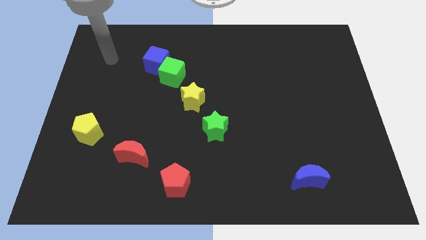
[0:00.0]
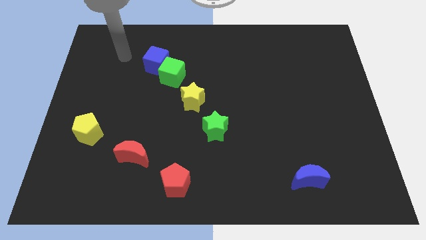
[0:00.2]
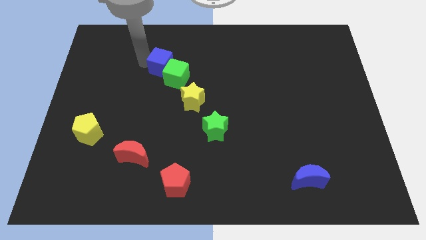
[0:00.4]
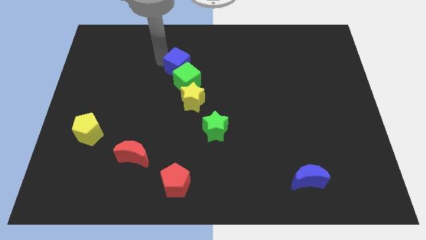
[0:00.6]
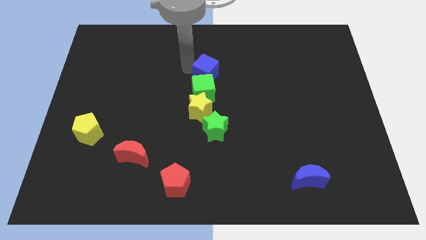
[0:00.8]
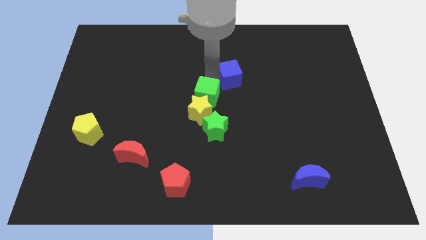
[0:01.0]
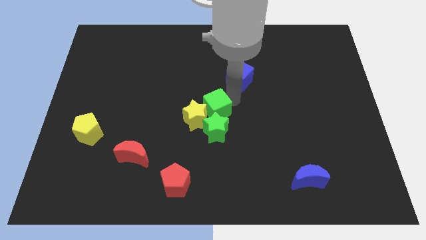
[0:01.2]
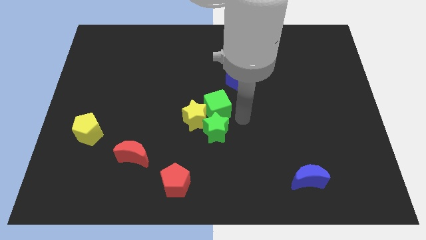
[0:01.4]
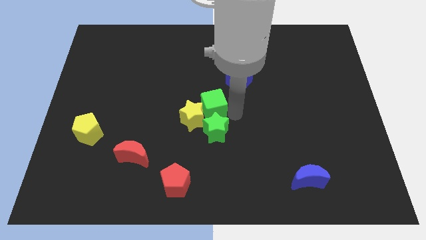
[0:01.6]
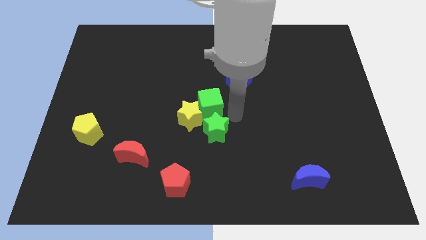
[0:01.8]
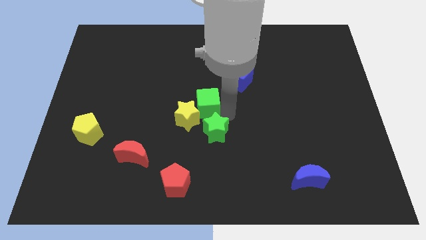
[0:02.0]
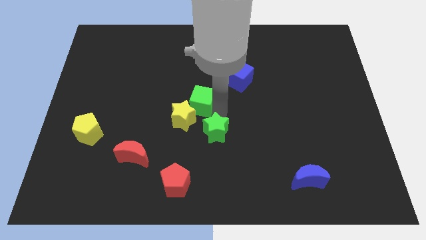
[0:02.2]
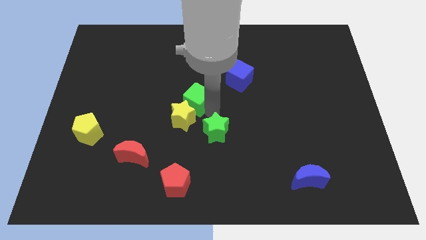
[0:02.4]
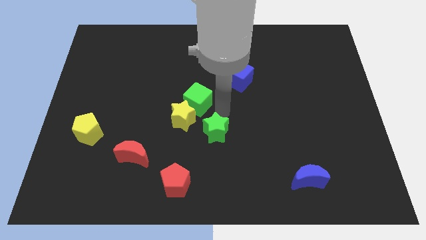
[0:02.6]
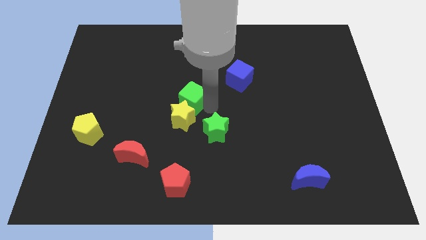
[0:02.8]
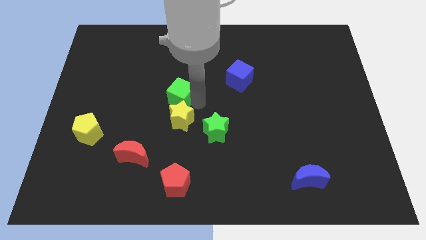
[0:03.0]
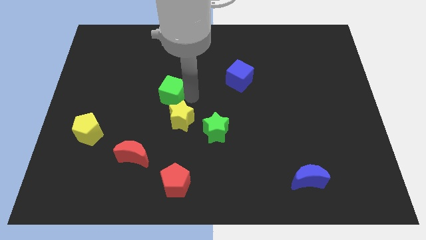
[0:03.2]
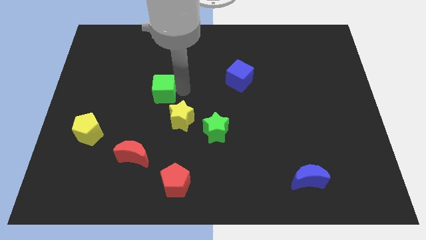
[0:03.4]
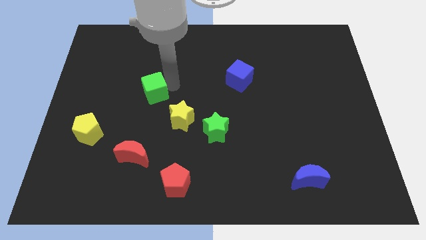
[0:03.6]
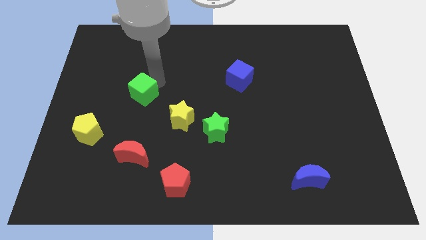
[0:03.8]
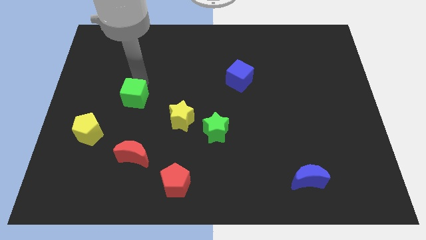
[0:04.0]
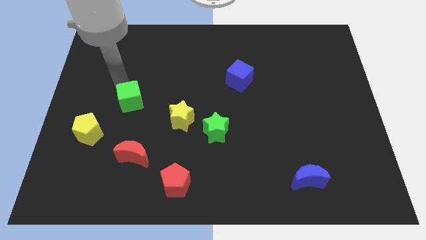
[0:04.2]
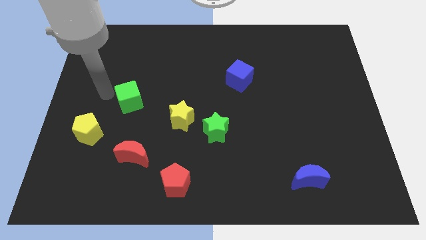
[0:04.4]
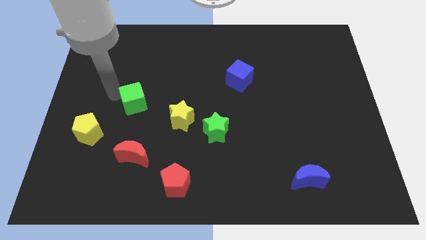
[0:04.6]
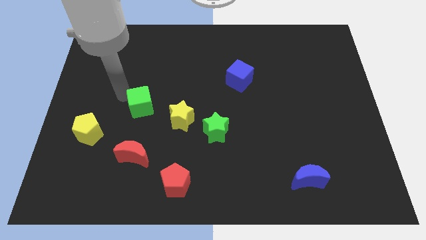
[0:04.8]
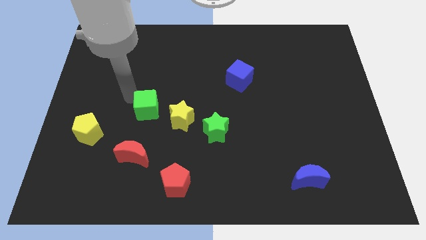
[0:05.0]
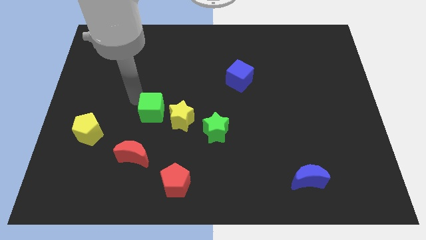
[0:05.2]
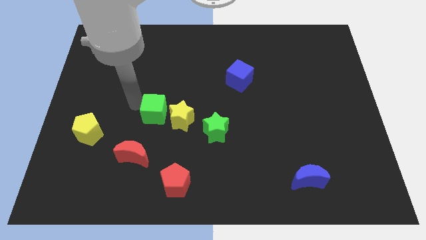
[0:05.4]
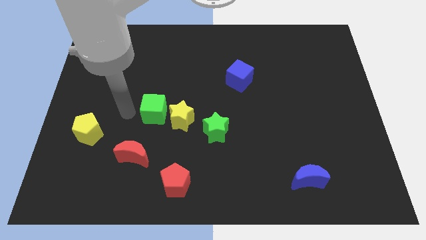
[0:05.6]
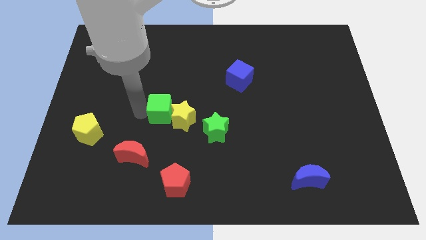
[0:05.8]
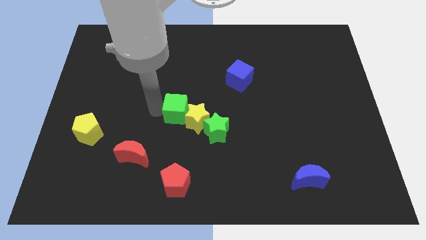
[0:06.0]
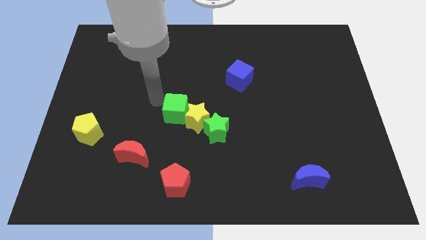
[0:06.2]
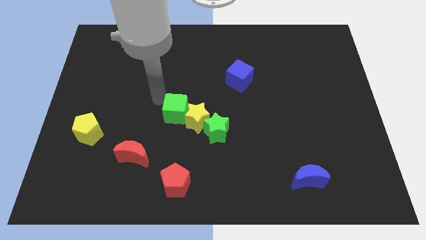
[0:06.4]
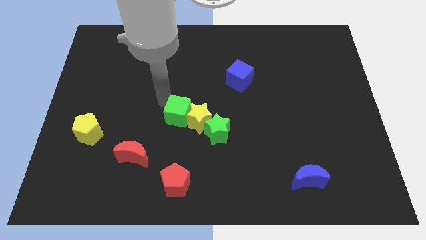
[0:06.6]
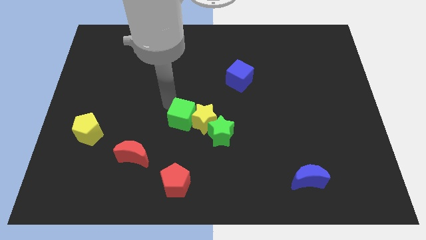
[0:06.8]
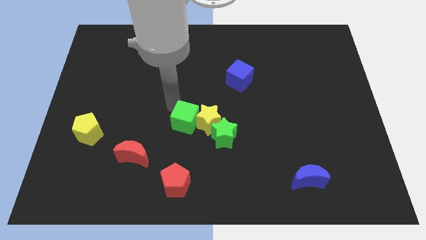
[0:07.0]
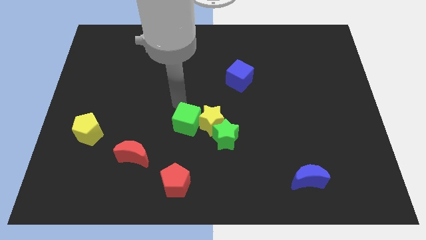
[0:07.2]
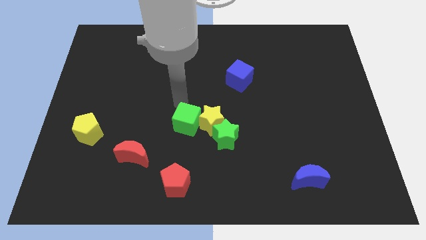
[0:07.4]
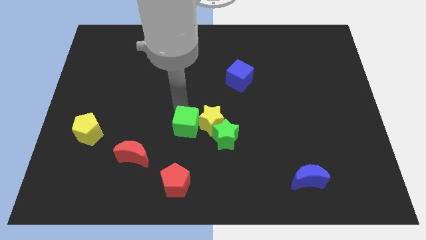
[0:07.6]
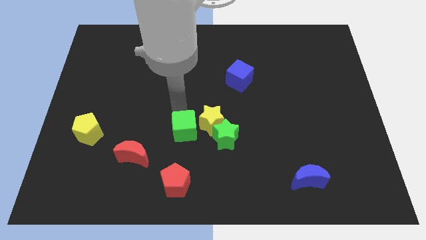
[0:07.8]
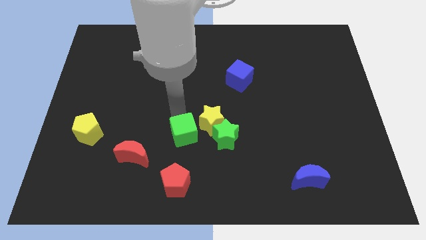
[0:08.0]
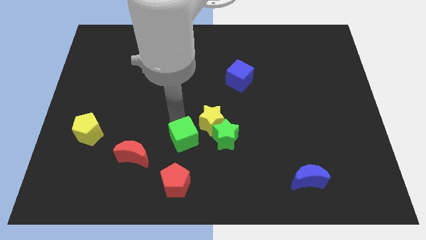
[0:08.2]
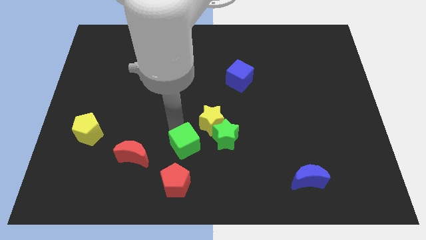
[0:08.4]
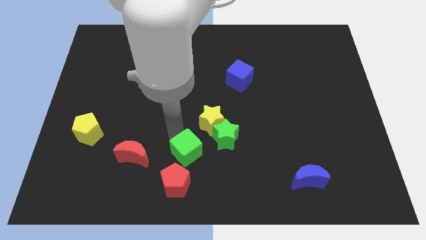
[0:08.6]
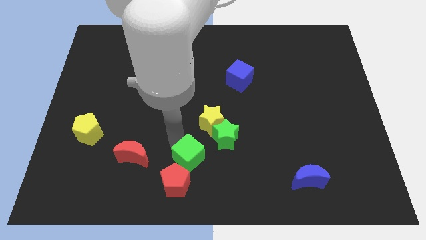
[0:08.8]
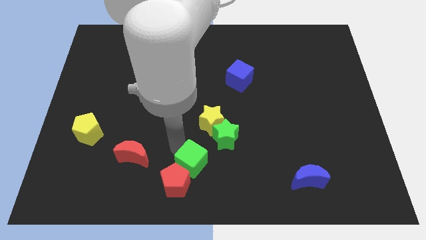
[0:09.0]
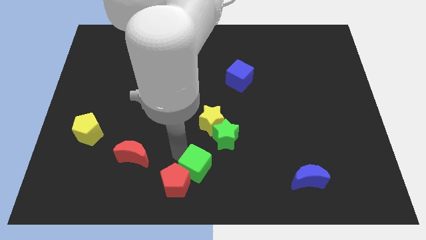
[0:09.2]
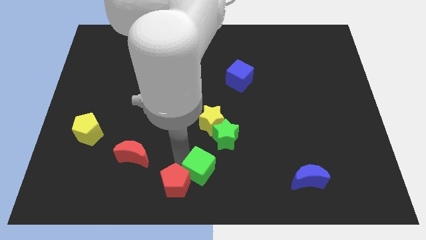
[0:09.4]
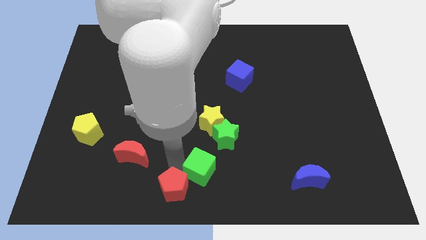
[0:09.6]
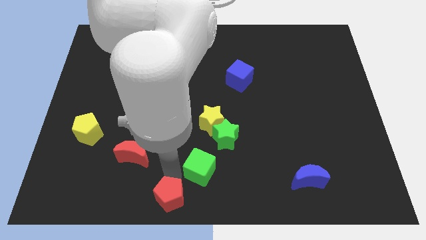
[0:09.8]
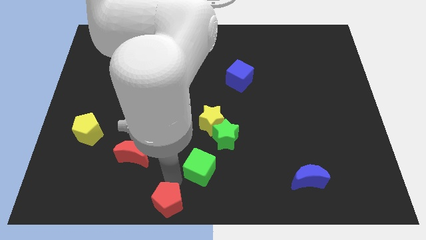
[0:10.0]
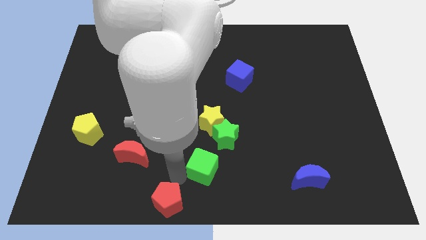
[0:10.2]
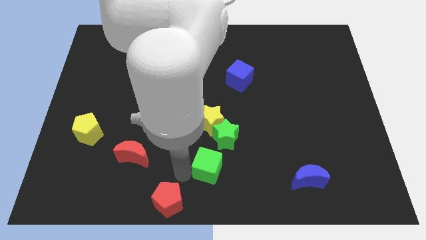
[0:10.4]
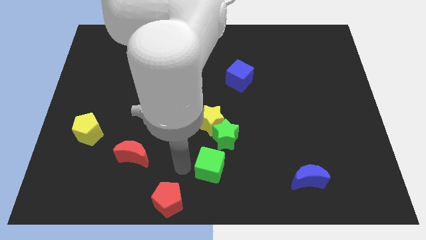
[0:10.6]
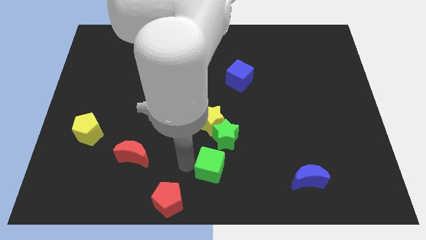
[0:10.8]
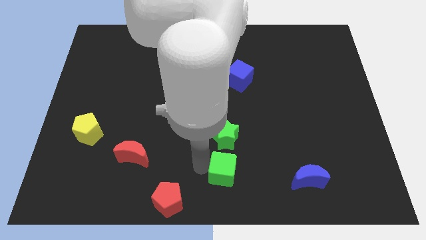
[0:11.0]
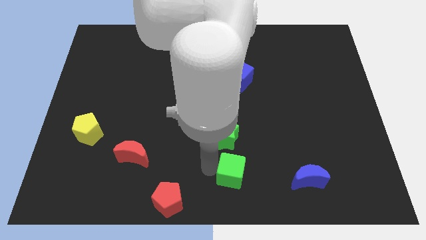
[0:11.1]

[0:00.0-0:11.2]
move the green cube to the left of the blue moon

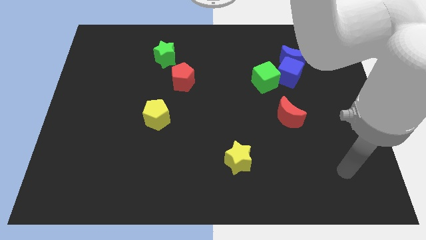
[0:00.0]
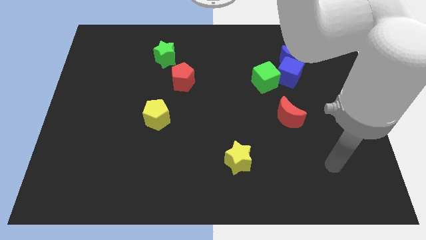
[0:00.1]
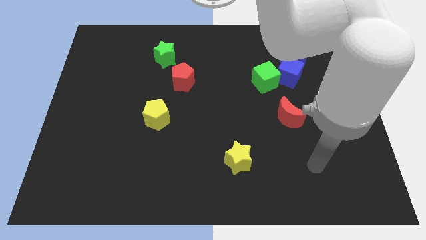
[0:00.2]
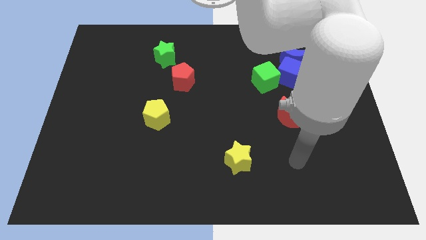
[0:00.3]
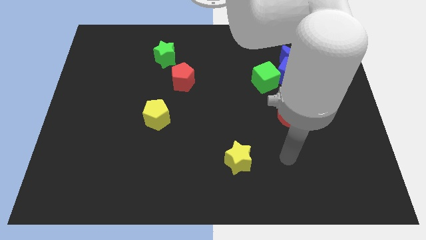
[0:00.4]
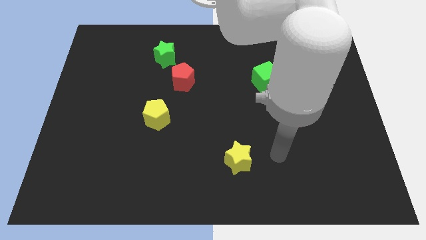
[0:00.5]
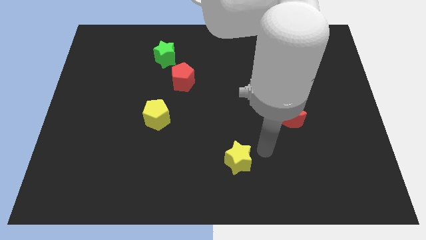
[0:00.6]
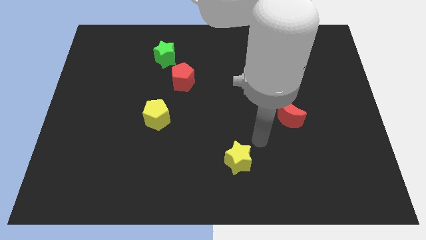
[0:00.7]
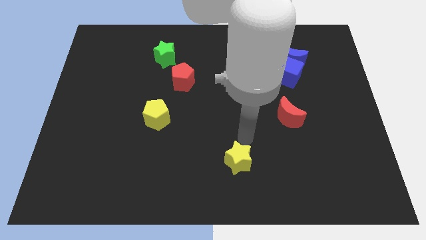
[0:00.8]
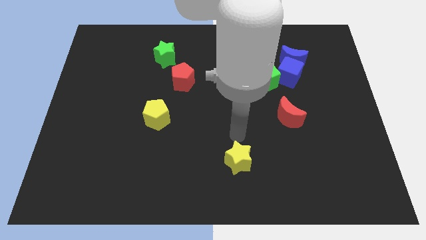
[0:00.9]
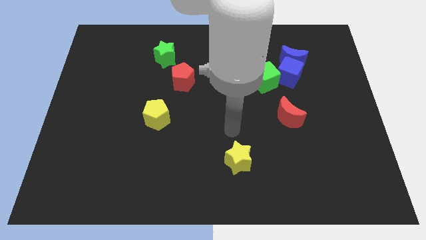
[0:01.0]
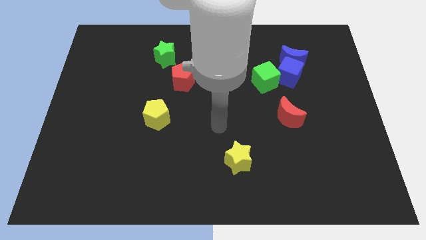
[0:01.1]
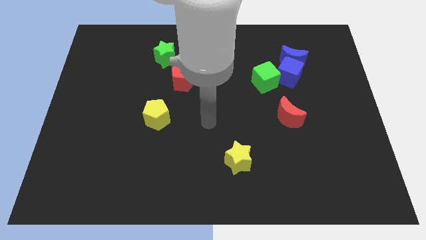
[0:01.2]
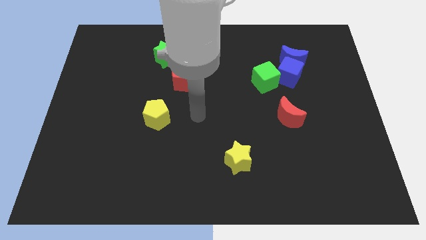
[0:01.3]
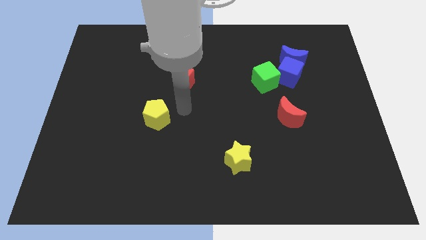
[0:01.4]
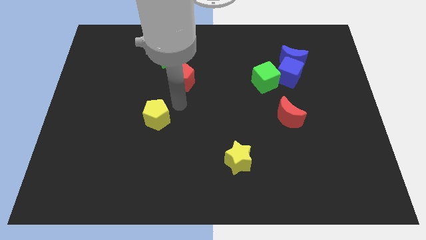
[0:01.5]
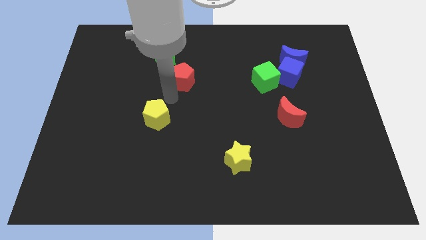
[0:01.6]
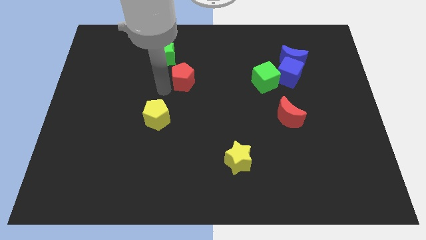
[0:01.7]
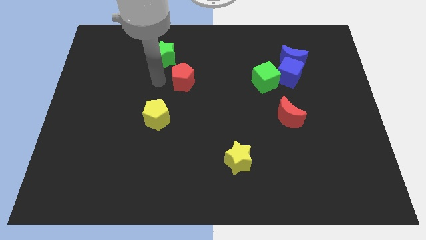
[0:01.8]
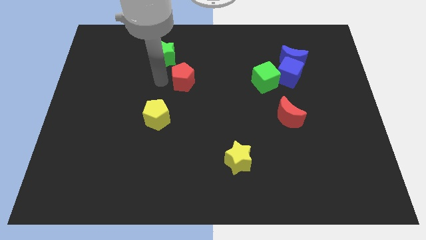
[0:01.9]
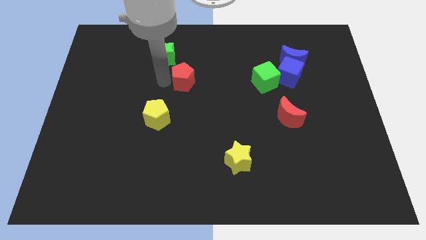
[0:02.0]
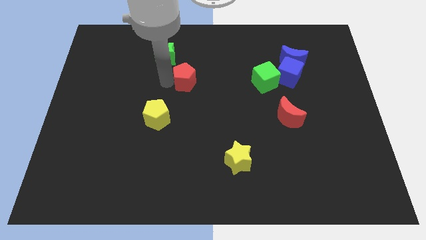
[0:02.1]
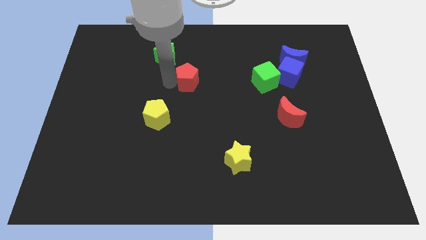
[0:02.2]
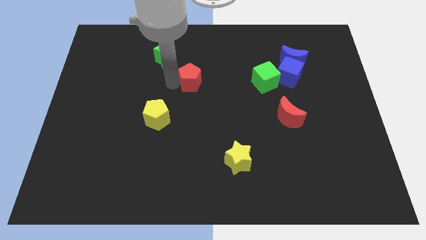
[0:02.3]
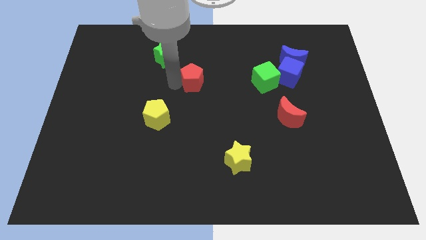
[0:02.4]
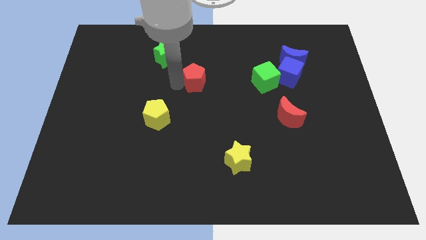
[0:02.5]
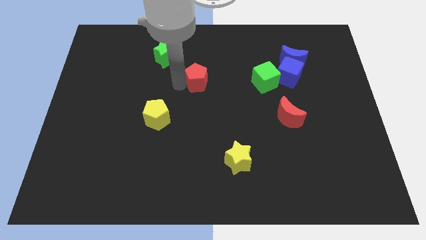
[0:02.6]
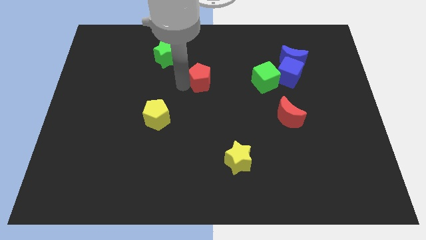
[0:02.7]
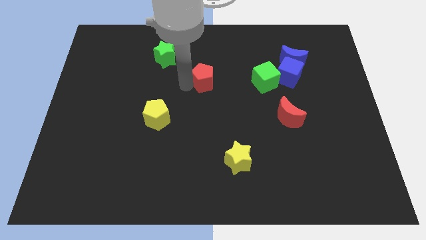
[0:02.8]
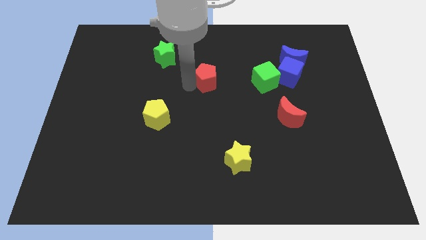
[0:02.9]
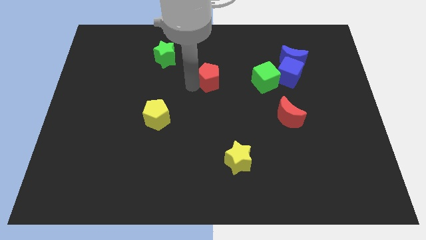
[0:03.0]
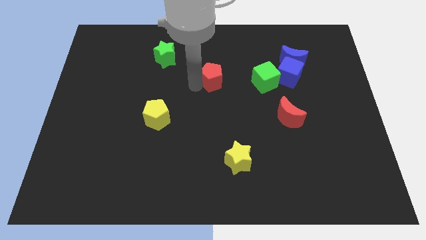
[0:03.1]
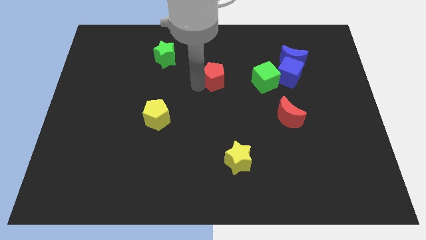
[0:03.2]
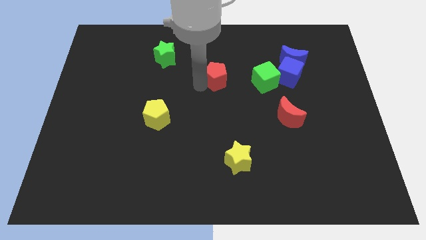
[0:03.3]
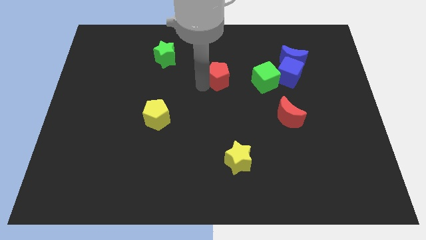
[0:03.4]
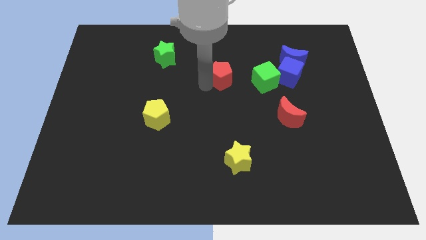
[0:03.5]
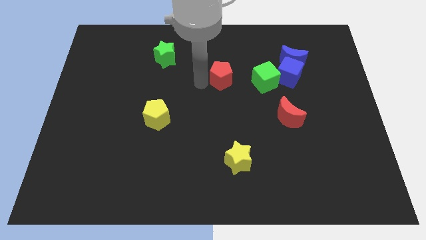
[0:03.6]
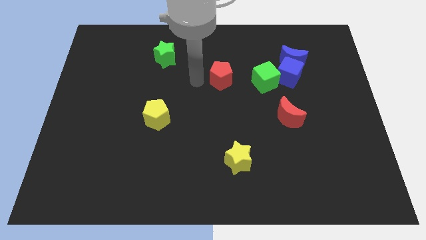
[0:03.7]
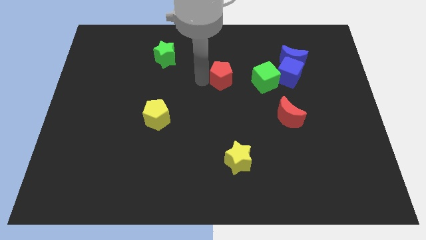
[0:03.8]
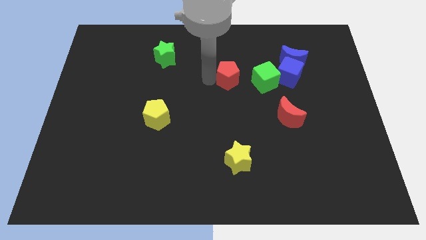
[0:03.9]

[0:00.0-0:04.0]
move the red pentagon to the left side of the blue cube
